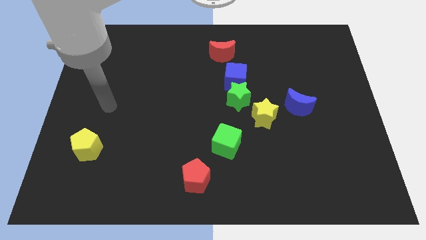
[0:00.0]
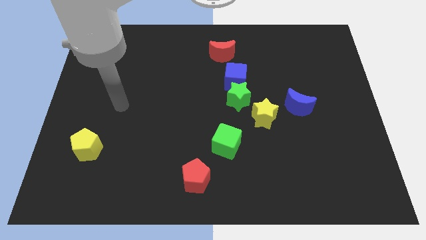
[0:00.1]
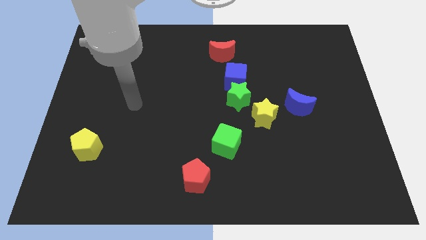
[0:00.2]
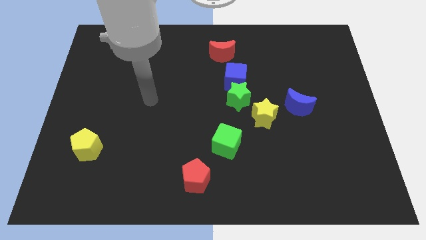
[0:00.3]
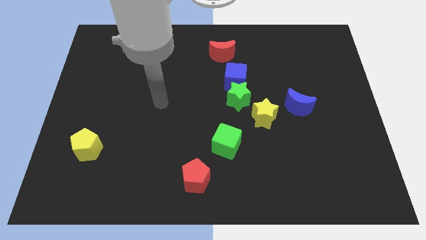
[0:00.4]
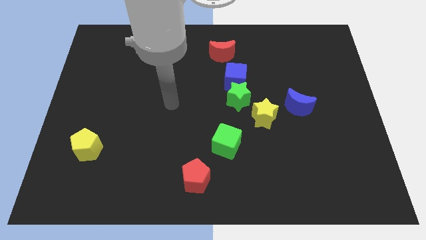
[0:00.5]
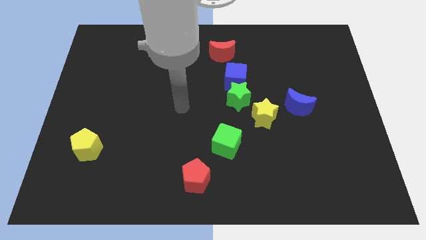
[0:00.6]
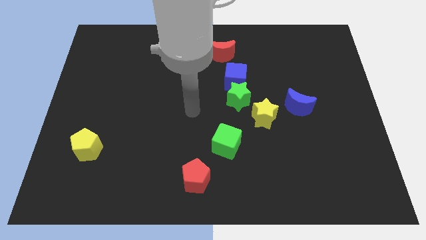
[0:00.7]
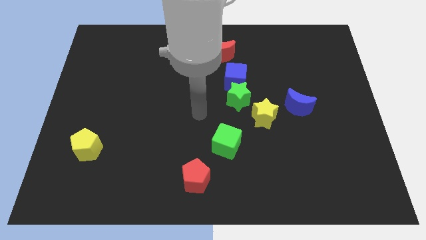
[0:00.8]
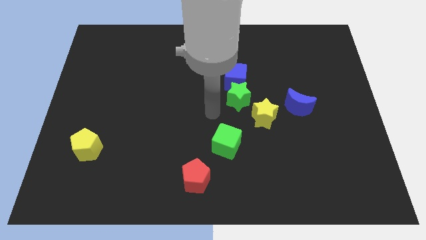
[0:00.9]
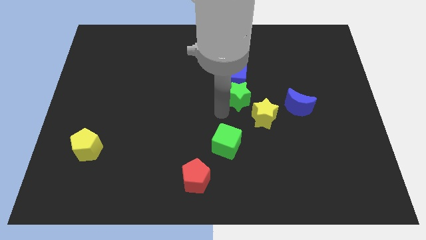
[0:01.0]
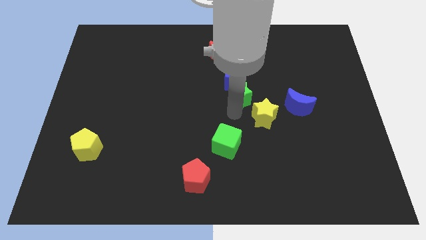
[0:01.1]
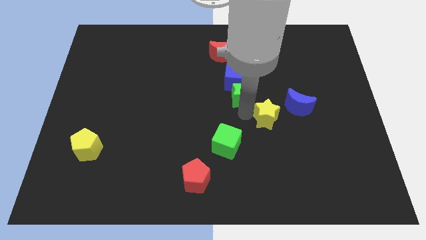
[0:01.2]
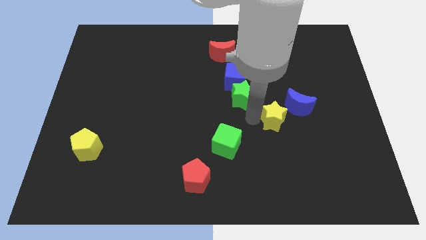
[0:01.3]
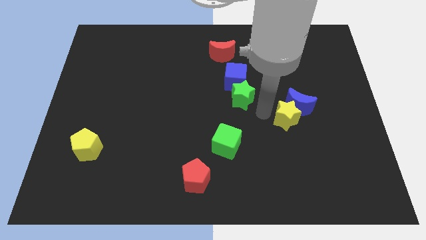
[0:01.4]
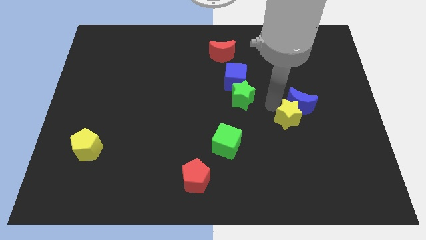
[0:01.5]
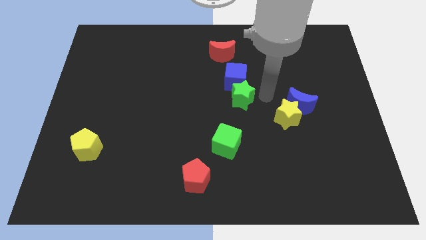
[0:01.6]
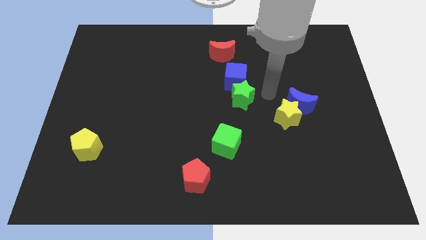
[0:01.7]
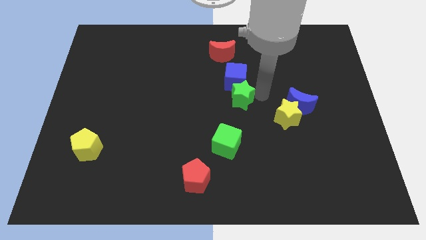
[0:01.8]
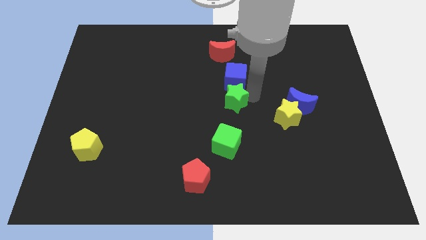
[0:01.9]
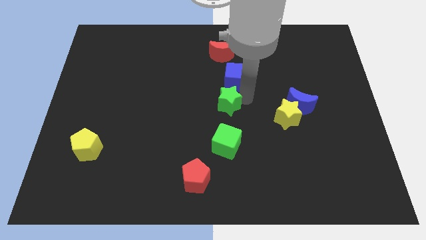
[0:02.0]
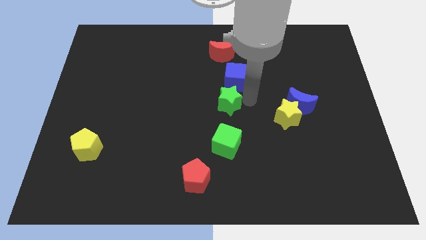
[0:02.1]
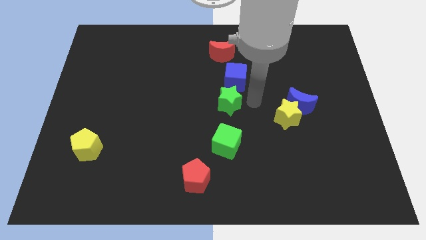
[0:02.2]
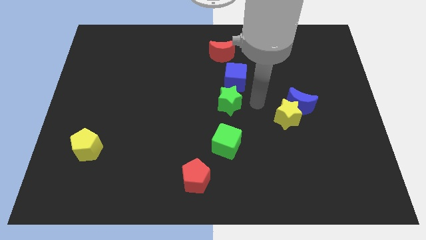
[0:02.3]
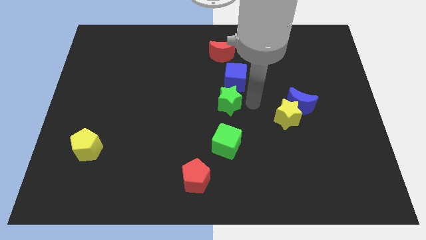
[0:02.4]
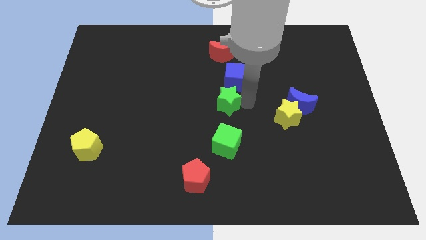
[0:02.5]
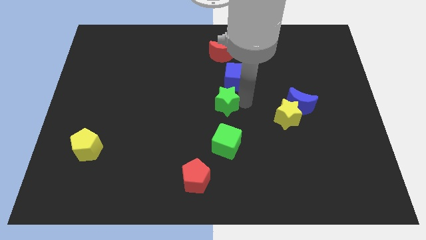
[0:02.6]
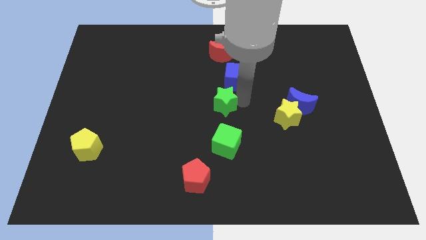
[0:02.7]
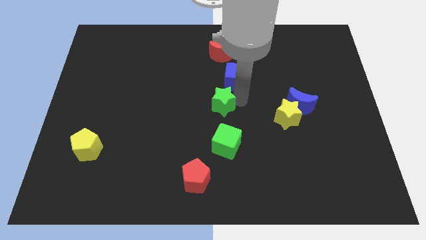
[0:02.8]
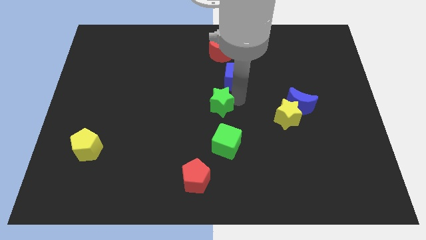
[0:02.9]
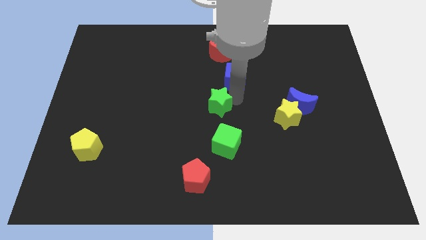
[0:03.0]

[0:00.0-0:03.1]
separate the green star from the blue cube and yellow star

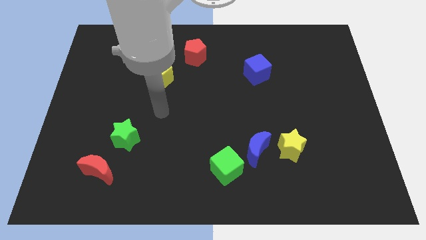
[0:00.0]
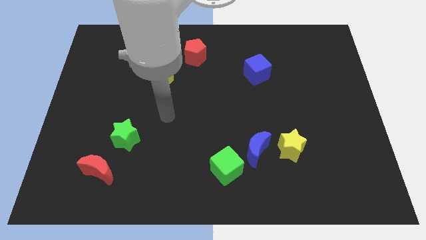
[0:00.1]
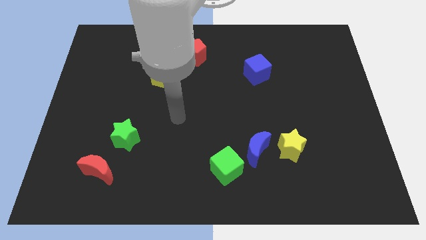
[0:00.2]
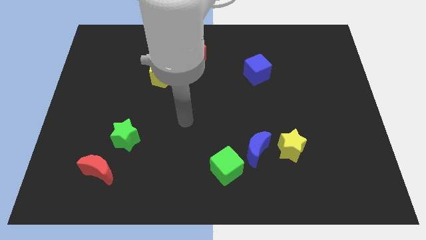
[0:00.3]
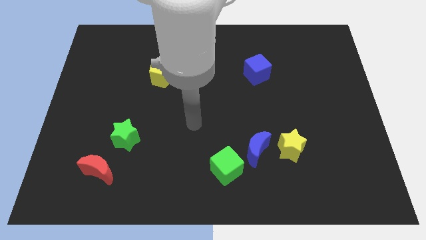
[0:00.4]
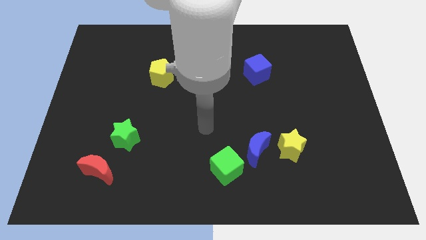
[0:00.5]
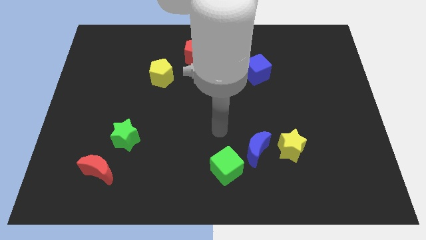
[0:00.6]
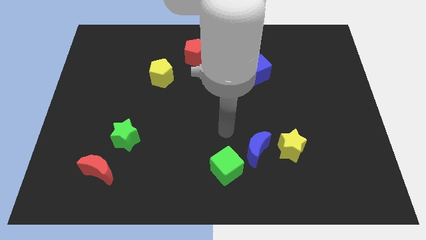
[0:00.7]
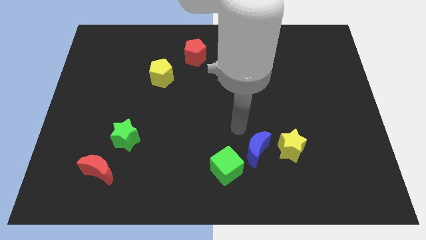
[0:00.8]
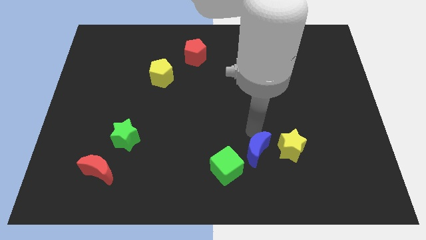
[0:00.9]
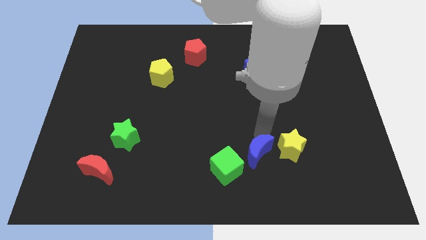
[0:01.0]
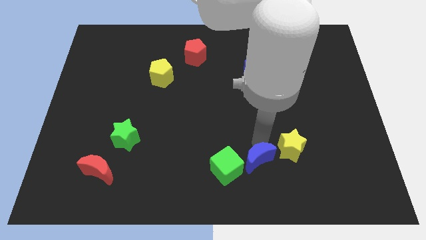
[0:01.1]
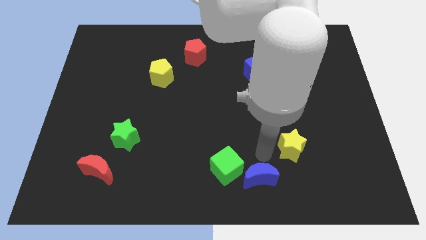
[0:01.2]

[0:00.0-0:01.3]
pull the yellow star apart from the blue moon

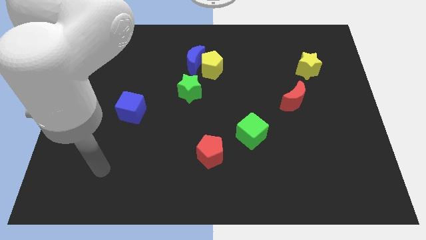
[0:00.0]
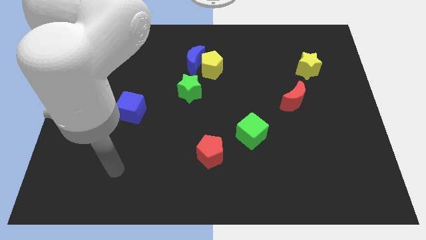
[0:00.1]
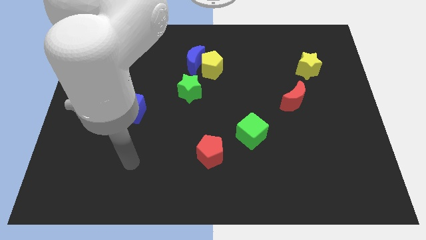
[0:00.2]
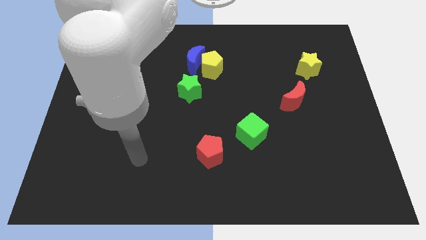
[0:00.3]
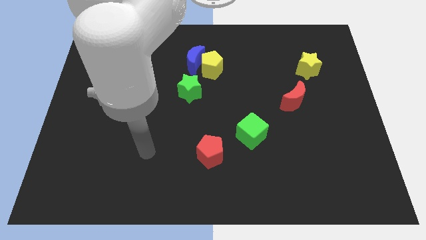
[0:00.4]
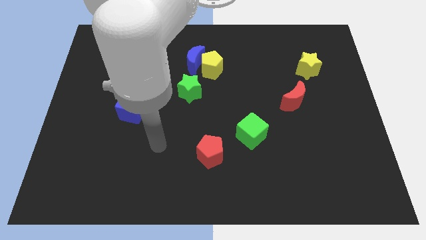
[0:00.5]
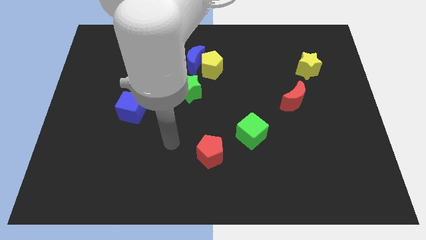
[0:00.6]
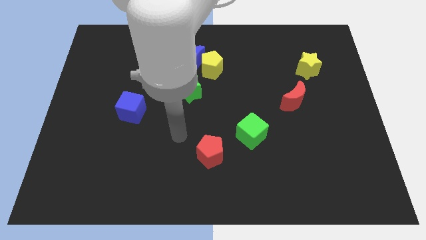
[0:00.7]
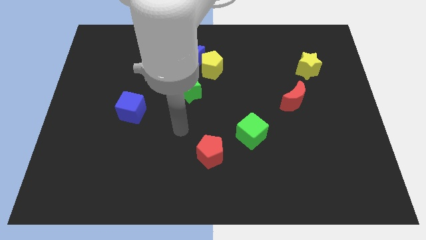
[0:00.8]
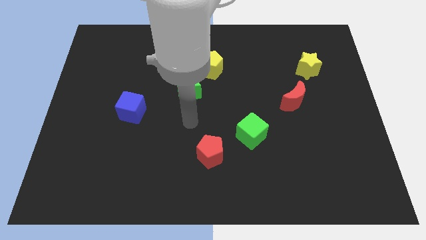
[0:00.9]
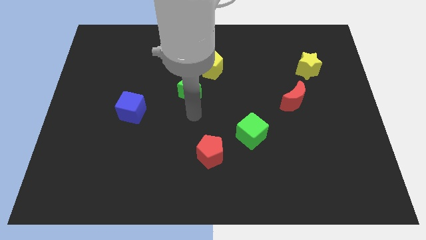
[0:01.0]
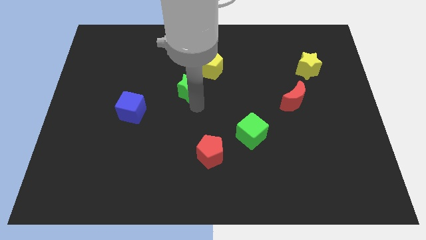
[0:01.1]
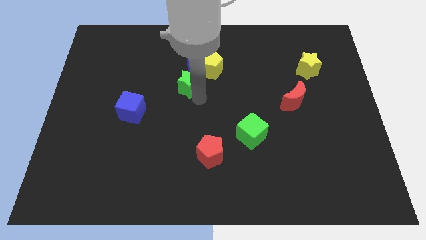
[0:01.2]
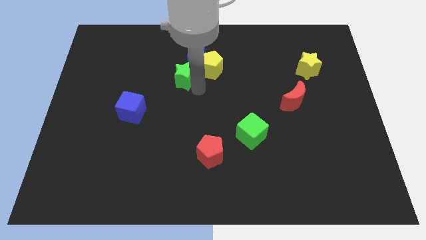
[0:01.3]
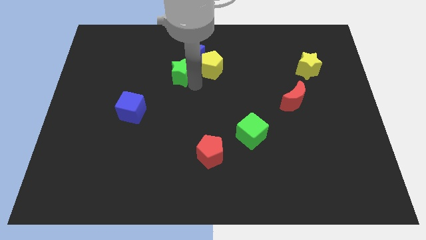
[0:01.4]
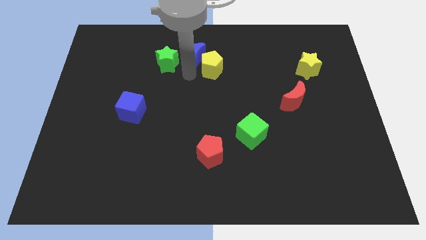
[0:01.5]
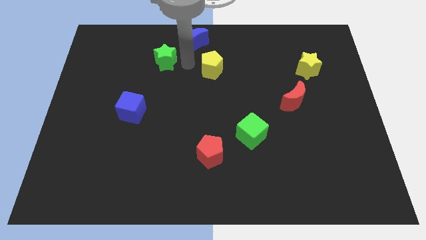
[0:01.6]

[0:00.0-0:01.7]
pull the yellow pentagon apart from the blue moon and green star

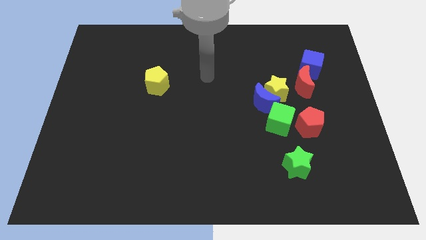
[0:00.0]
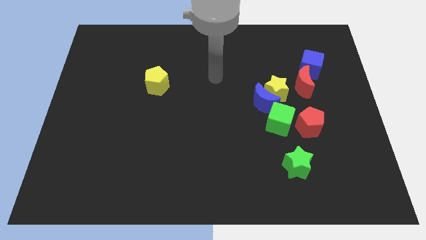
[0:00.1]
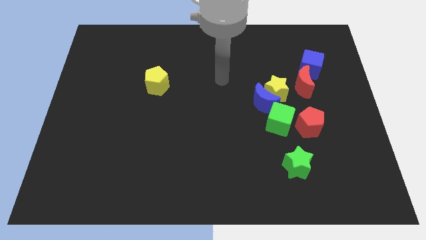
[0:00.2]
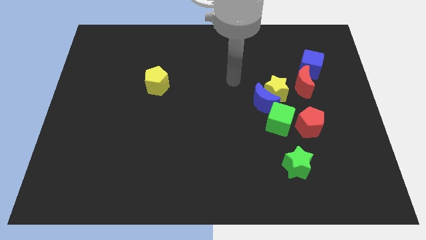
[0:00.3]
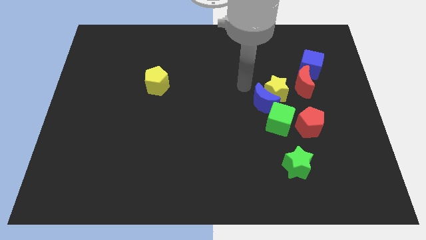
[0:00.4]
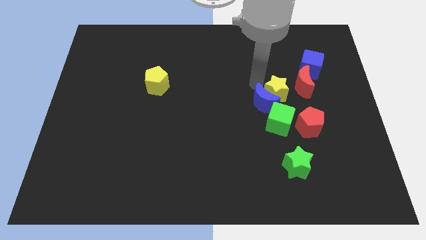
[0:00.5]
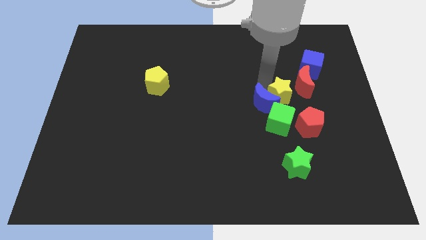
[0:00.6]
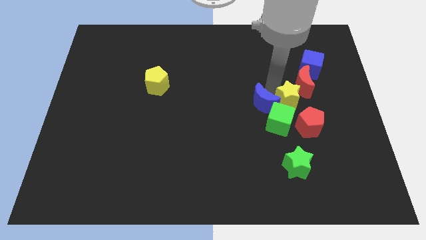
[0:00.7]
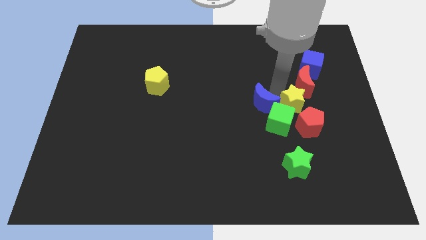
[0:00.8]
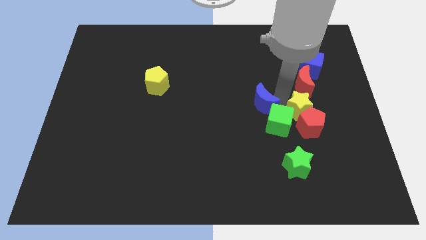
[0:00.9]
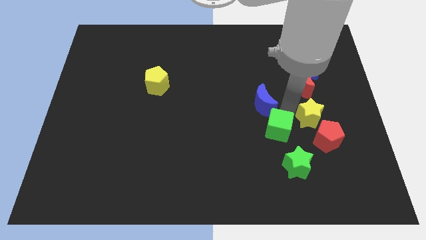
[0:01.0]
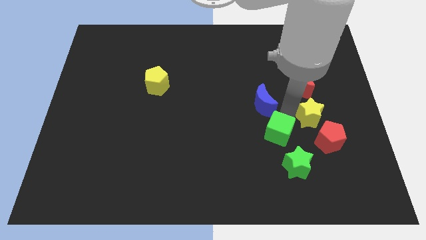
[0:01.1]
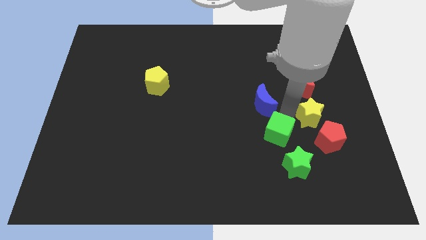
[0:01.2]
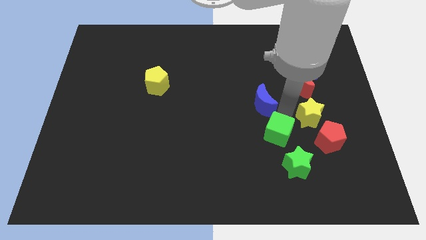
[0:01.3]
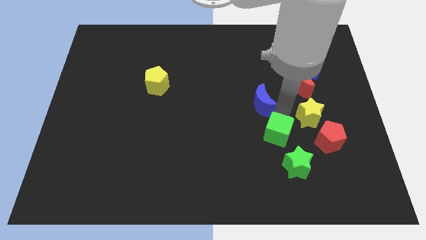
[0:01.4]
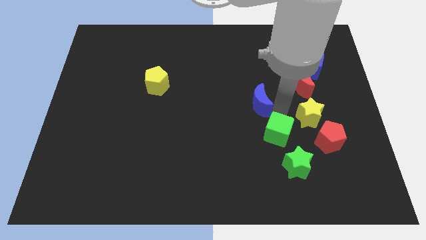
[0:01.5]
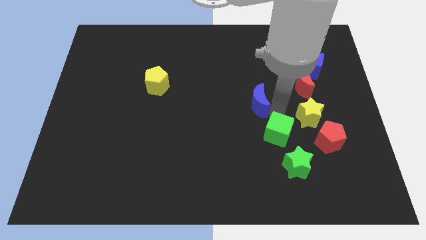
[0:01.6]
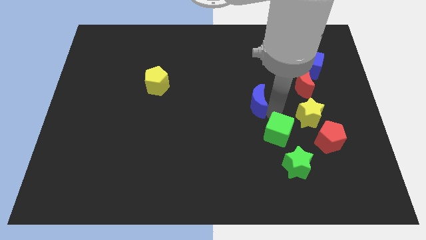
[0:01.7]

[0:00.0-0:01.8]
pull the blue moon apart from the yellow star and green cube

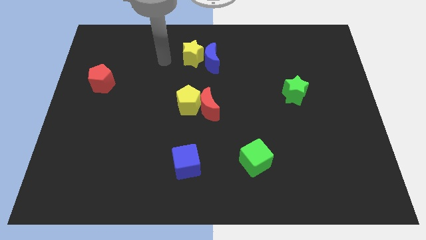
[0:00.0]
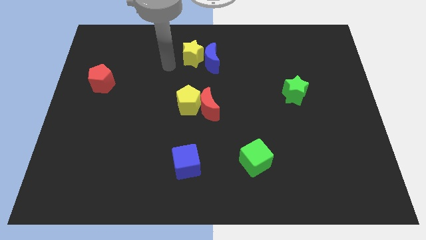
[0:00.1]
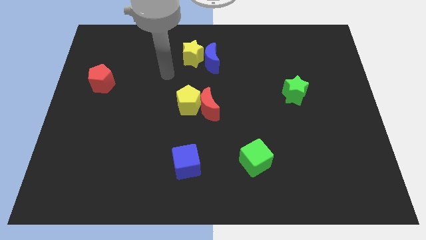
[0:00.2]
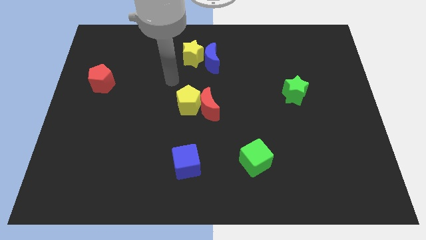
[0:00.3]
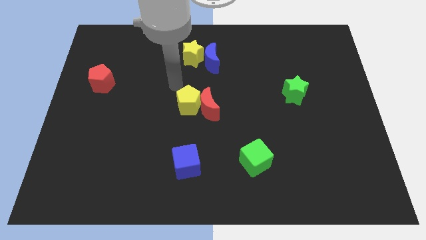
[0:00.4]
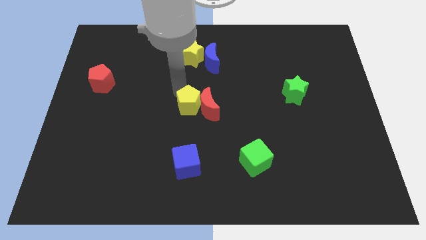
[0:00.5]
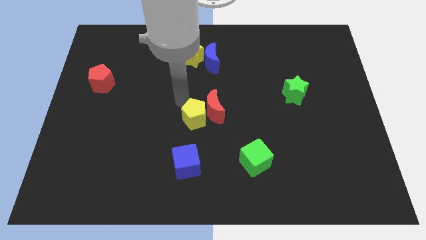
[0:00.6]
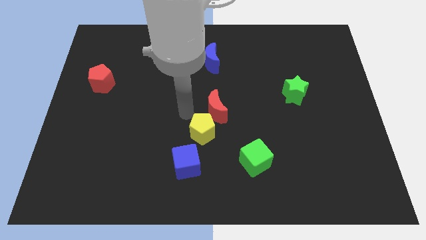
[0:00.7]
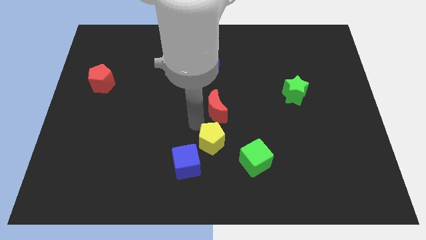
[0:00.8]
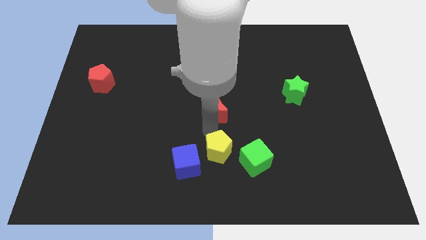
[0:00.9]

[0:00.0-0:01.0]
separate the red moon from the yellow pentagon

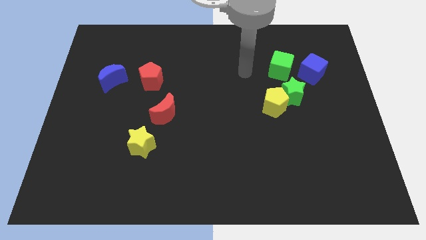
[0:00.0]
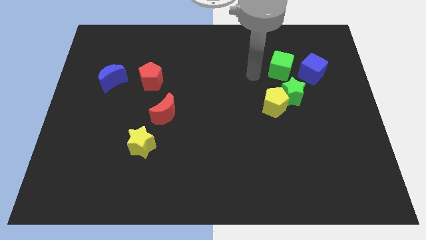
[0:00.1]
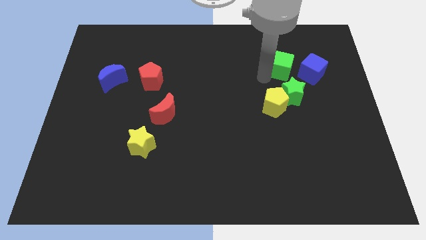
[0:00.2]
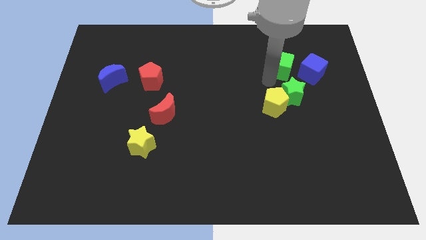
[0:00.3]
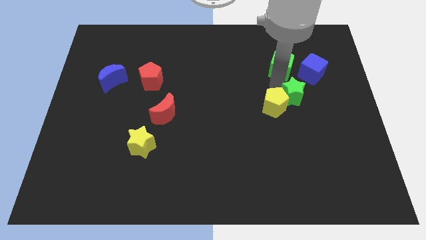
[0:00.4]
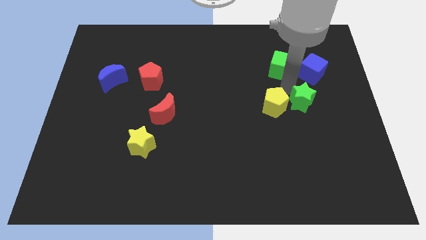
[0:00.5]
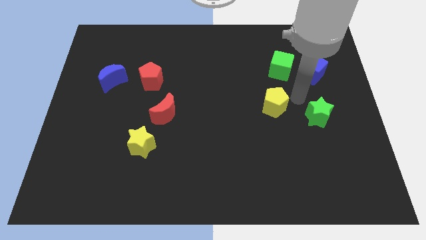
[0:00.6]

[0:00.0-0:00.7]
pull the yellow pentagon apart from the green star
